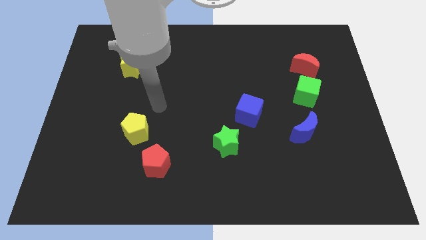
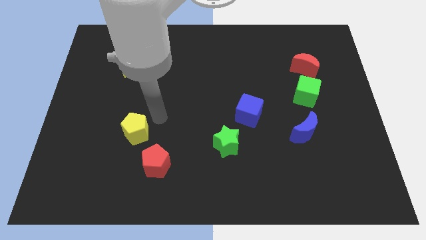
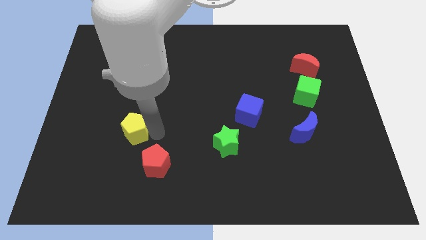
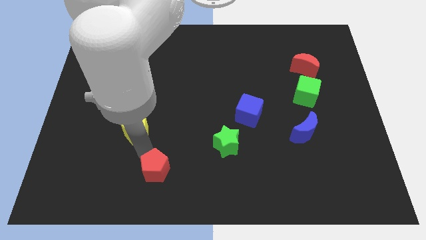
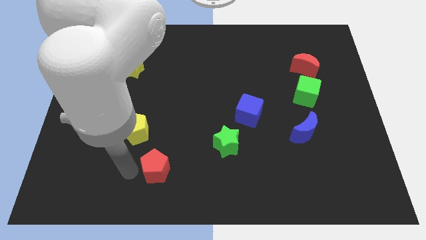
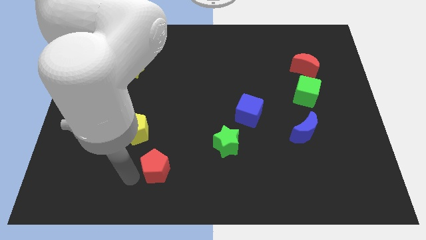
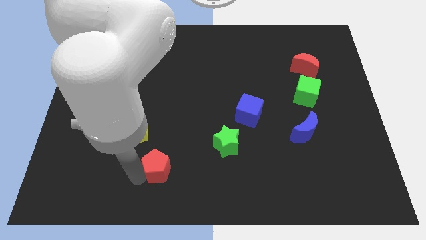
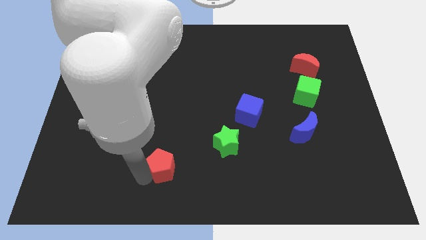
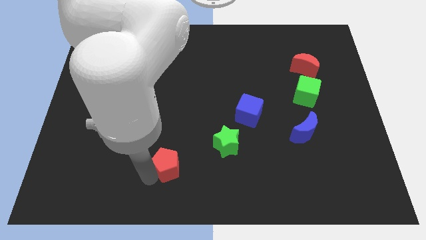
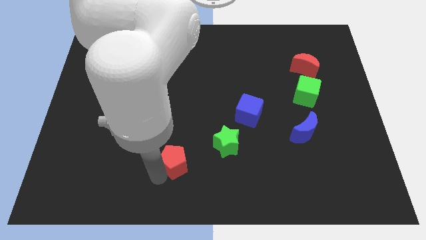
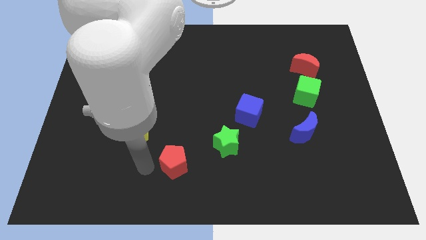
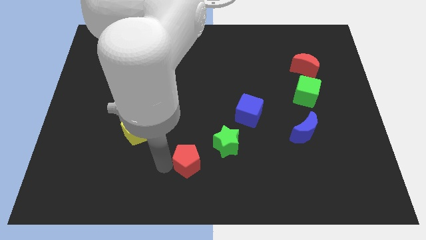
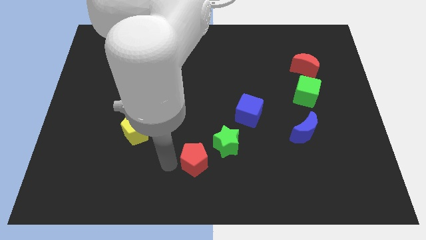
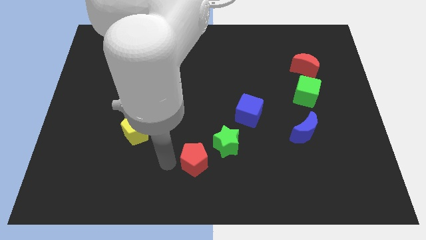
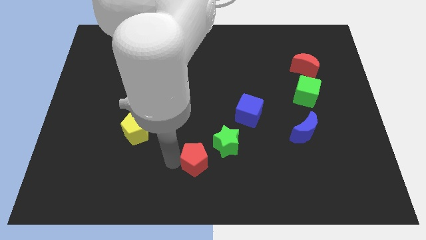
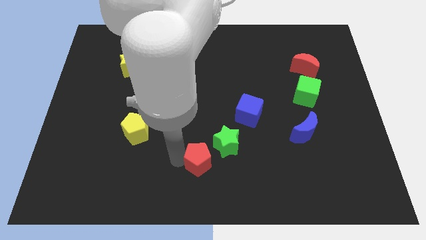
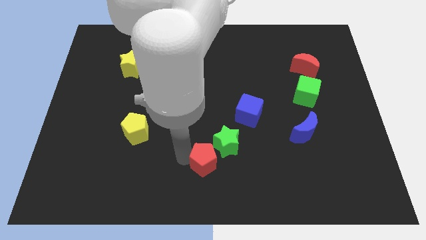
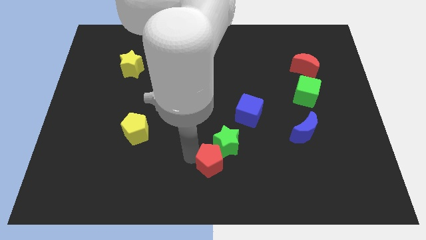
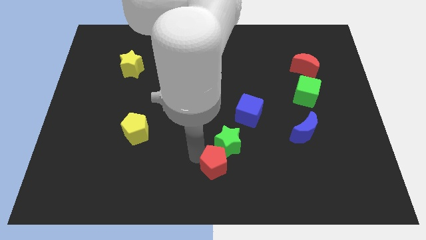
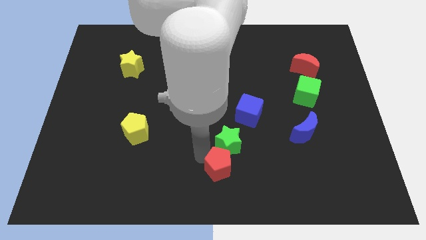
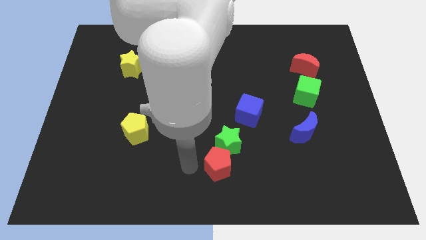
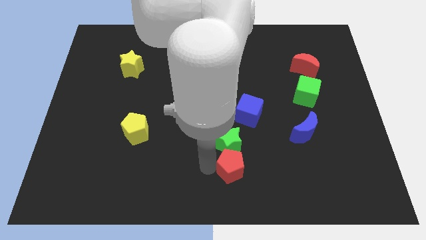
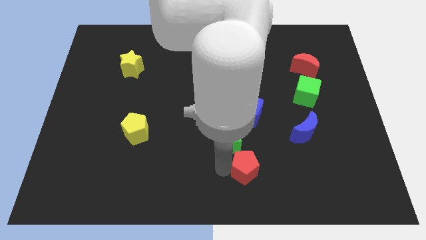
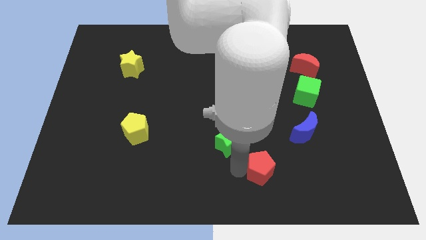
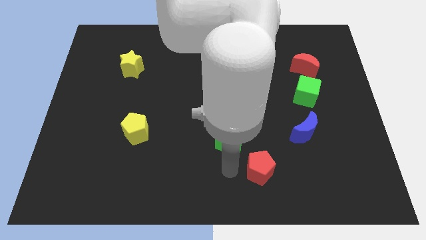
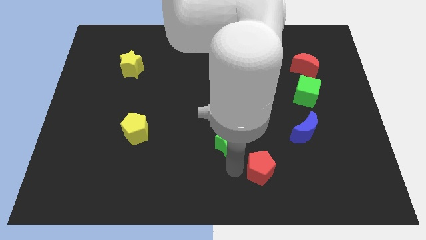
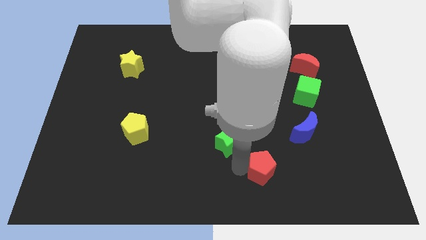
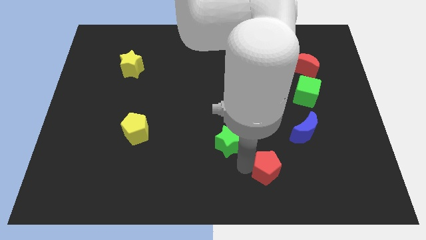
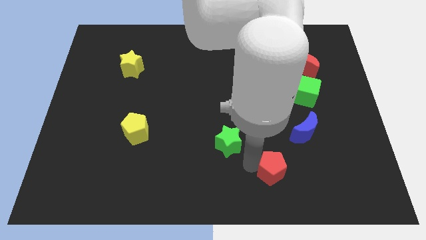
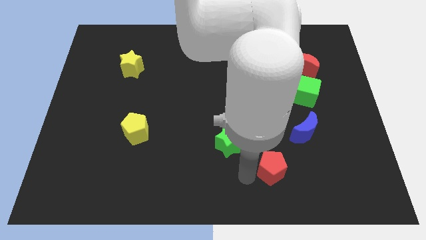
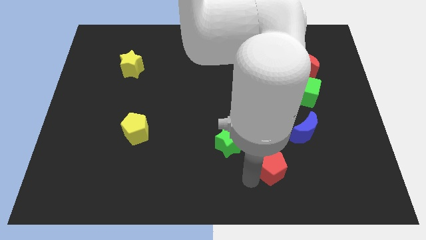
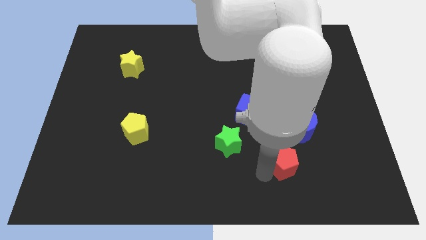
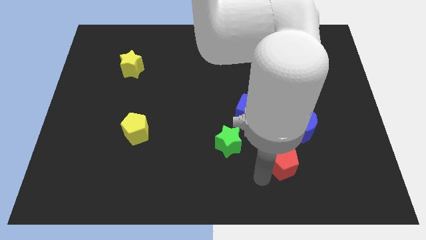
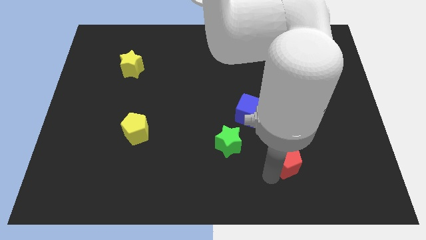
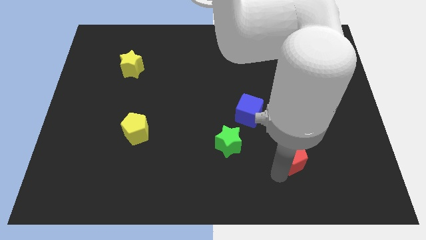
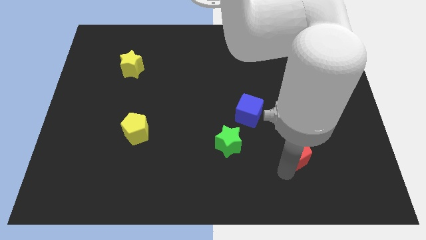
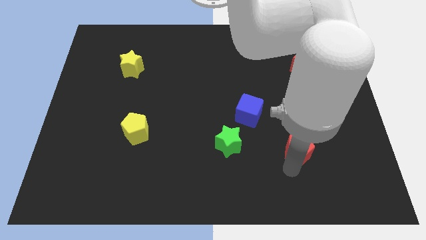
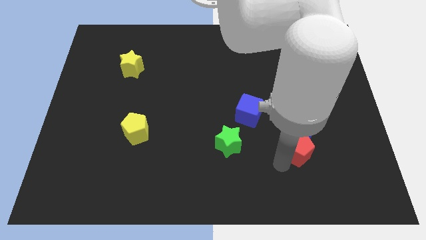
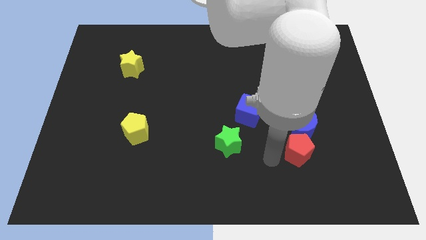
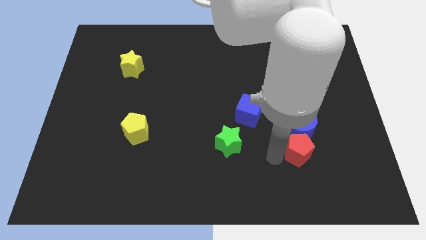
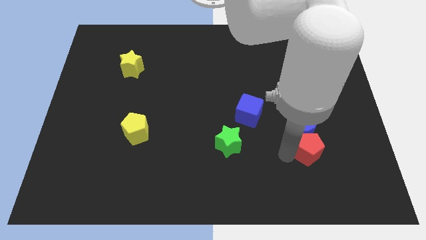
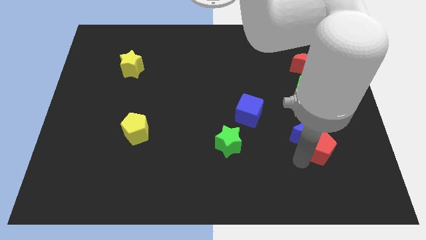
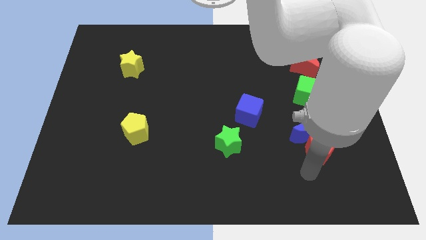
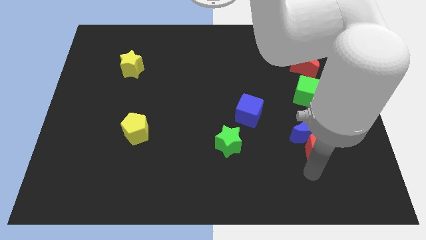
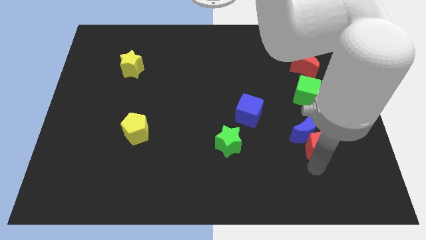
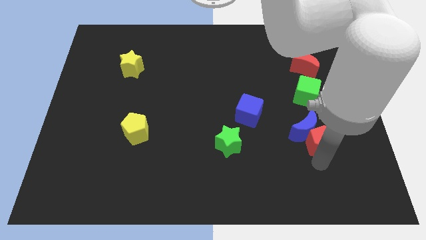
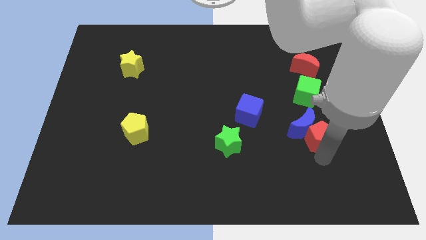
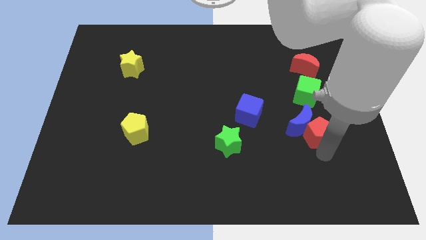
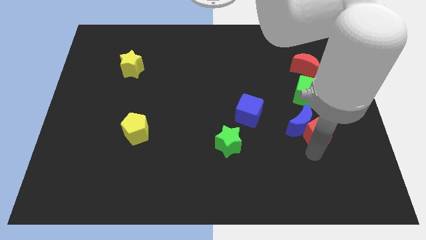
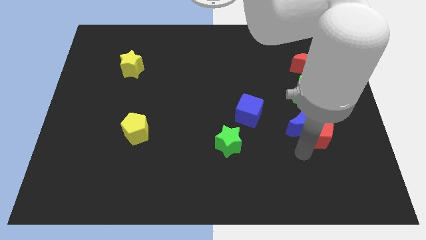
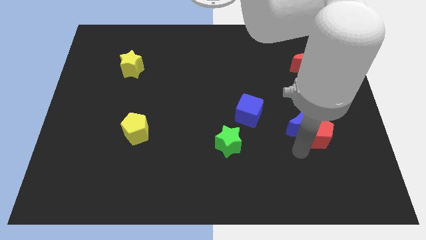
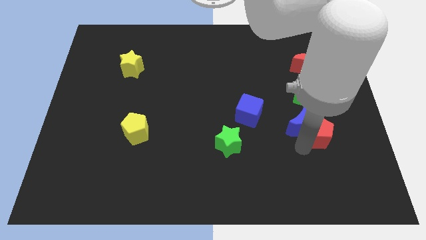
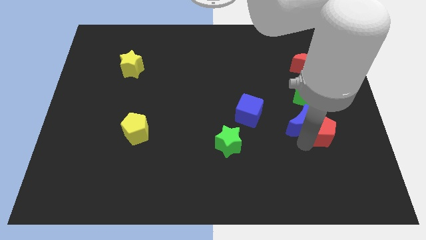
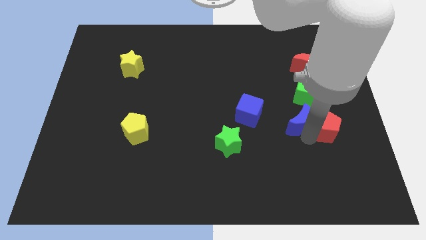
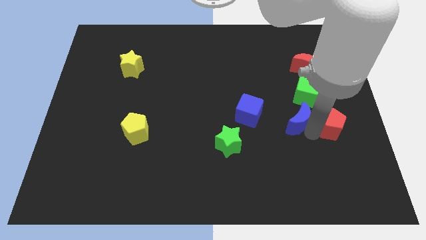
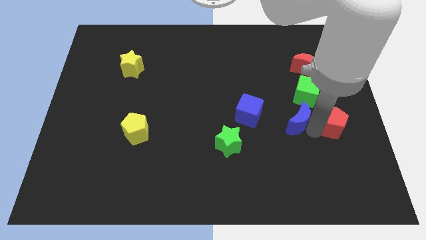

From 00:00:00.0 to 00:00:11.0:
slide the red pentagon to the right side of the board

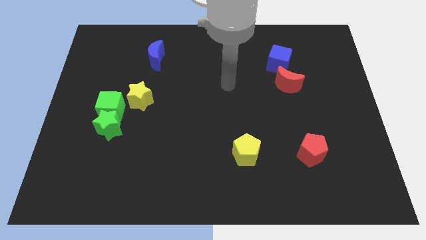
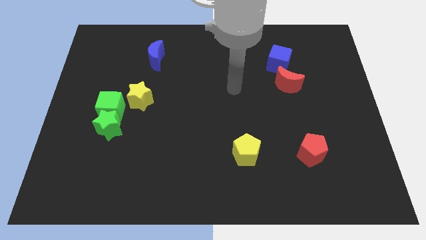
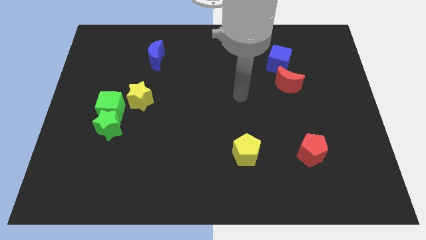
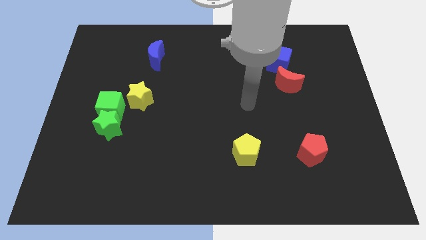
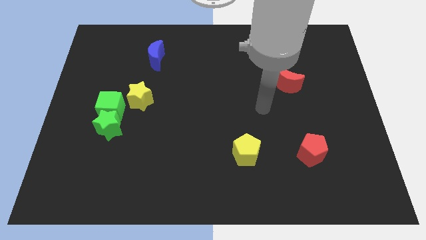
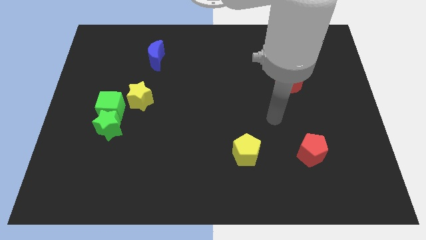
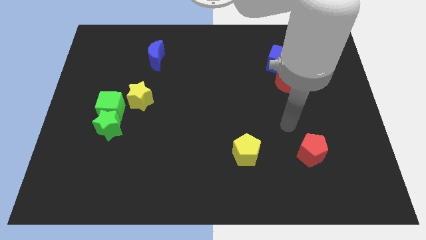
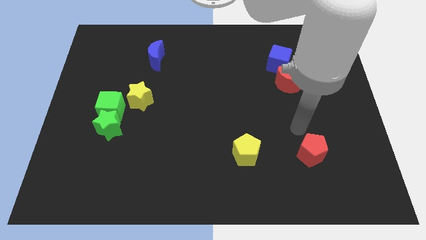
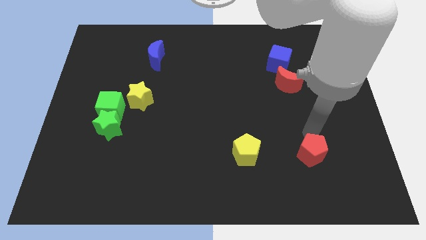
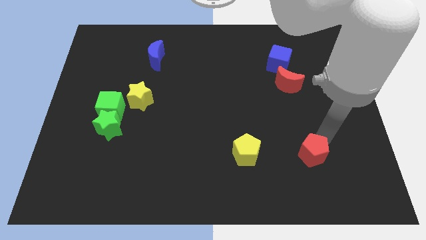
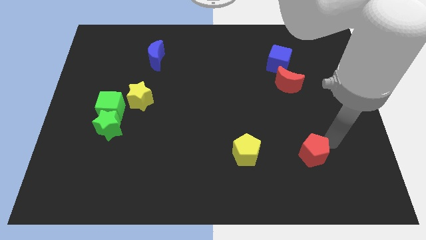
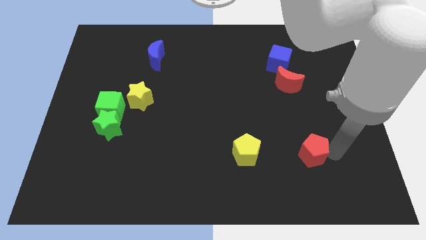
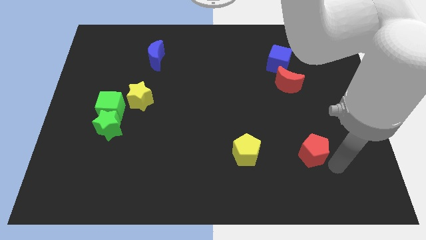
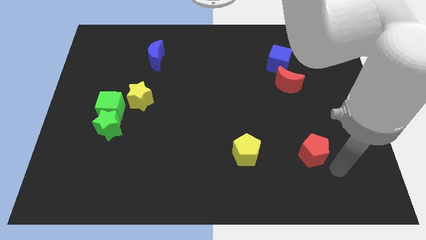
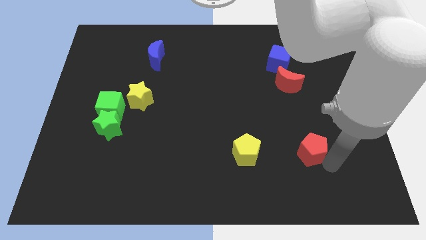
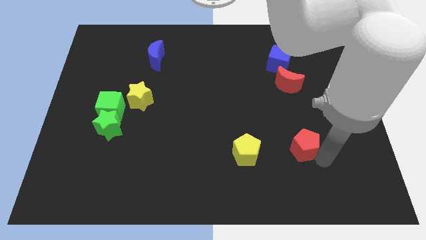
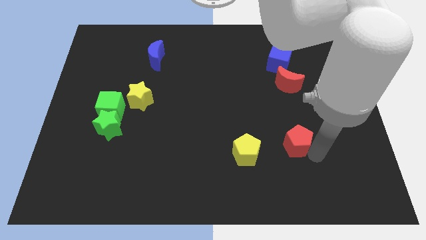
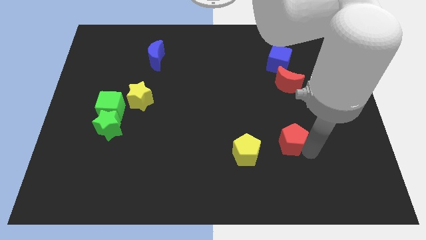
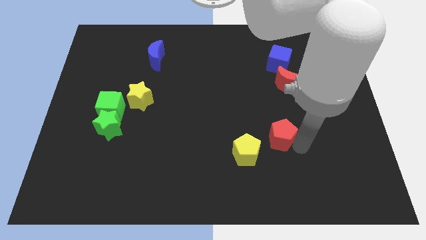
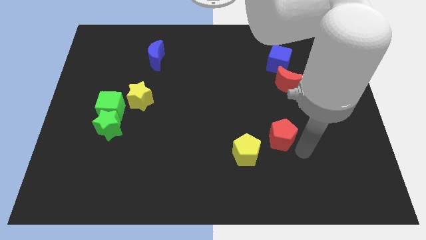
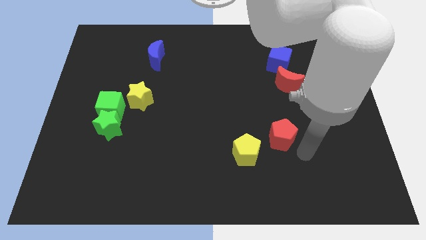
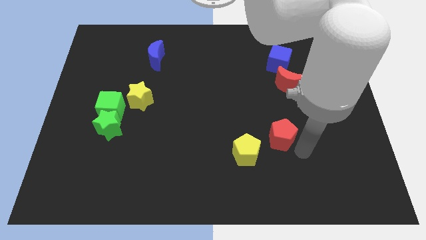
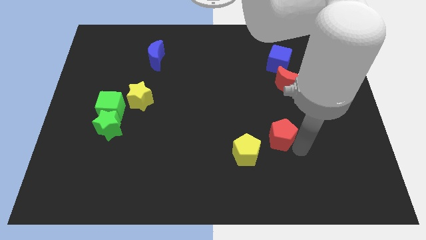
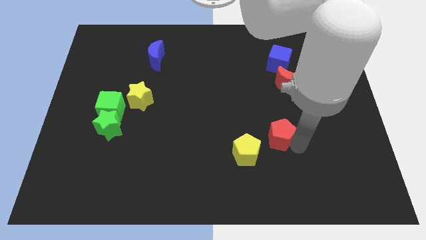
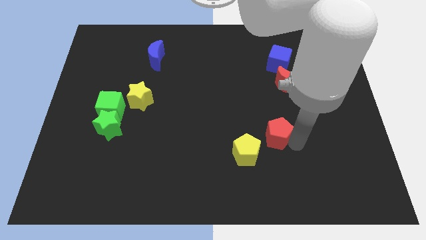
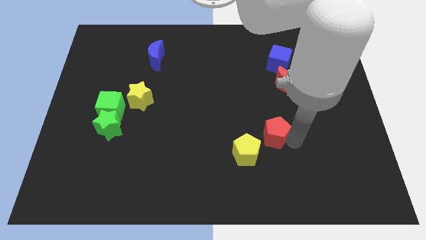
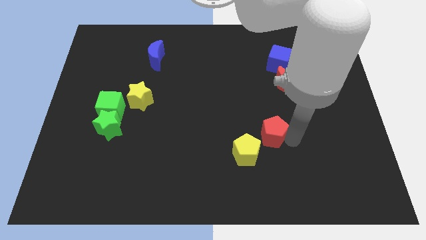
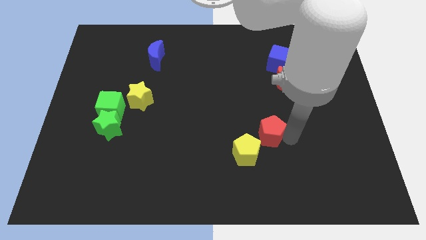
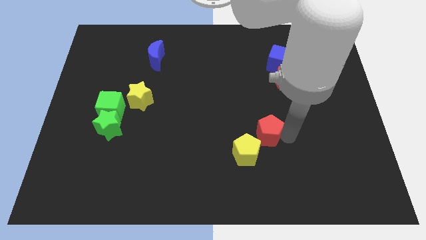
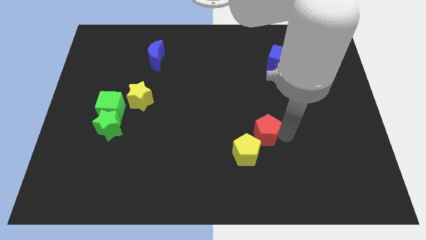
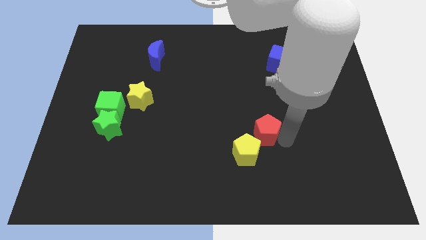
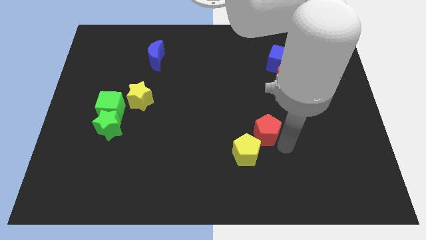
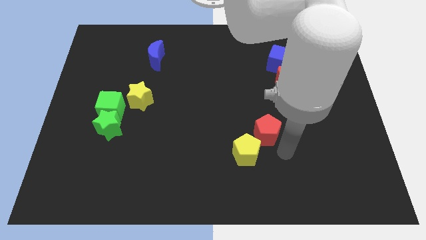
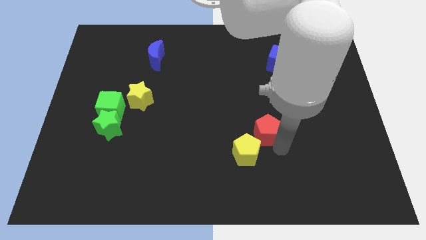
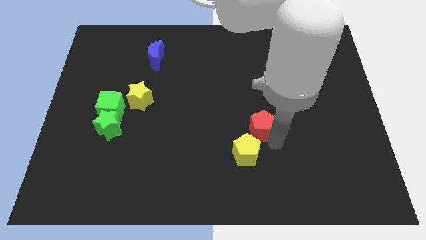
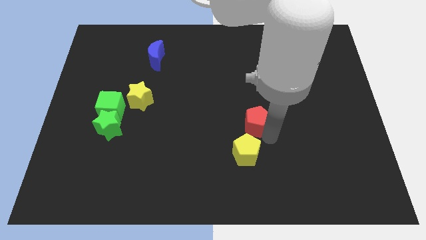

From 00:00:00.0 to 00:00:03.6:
put the red pentagon to the middle
